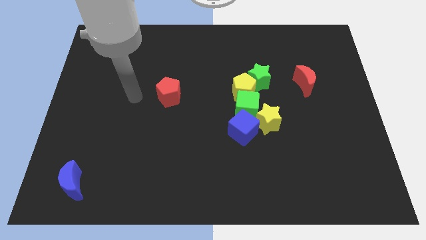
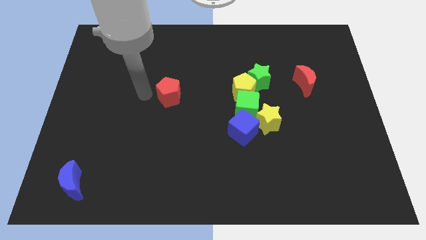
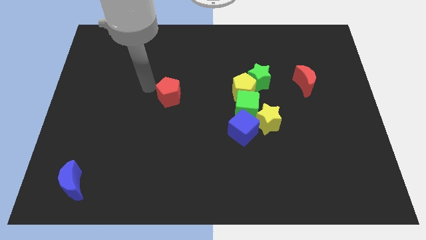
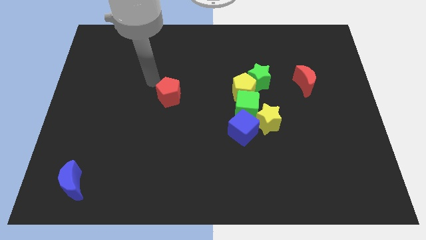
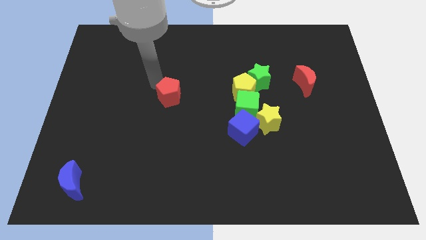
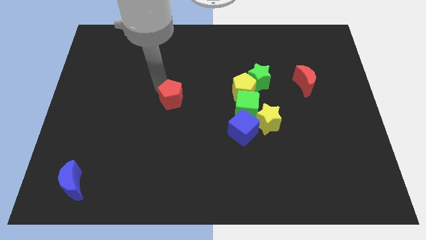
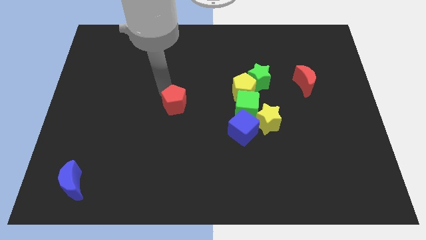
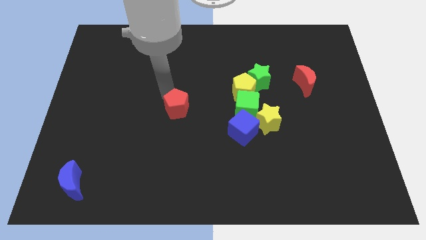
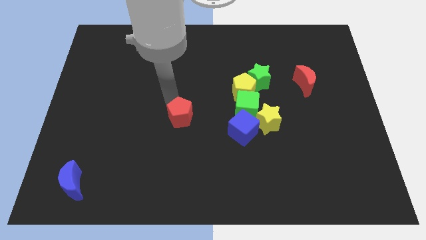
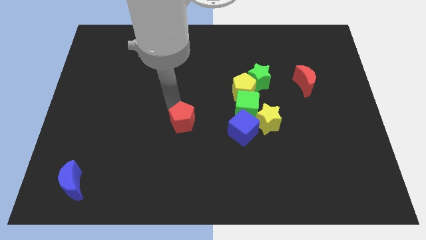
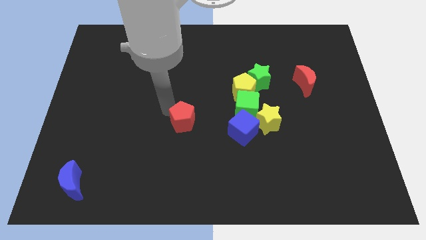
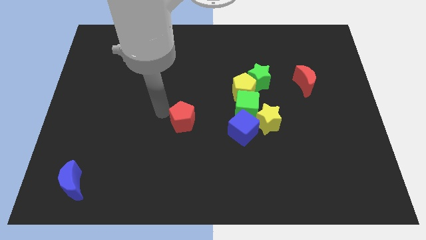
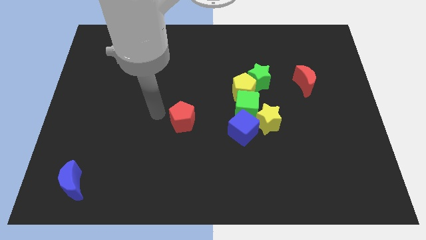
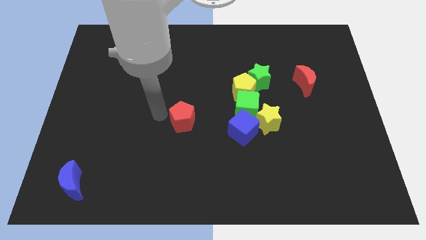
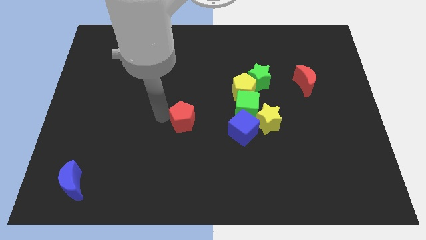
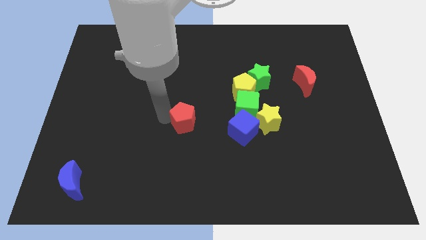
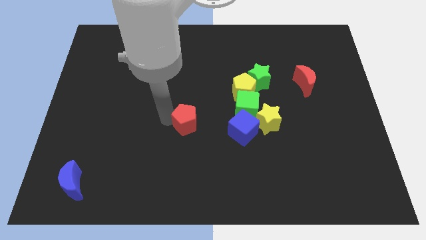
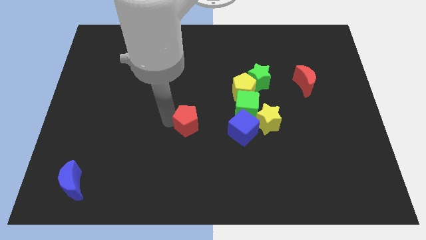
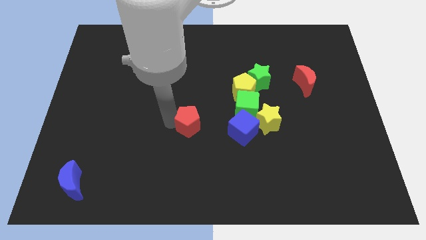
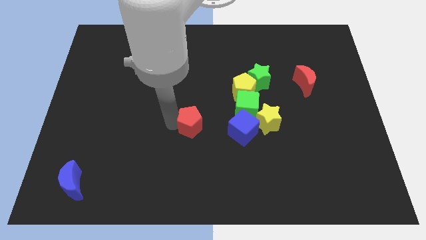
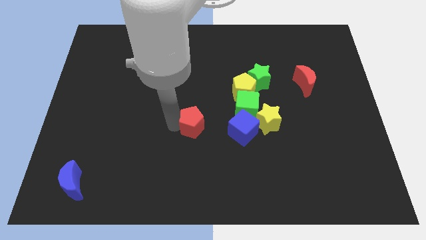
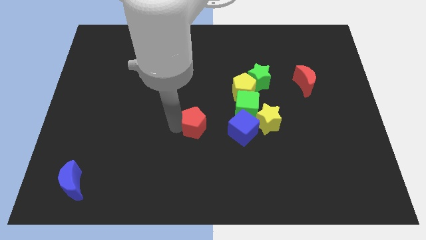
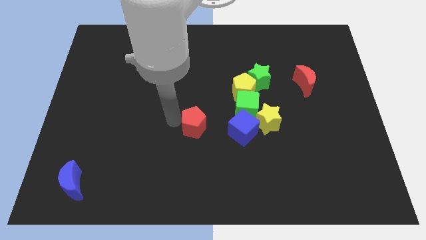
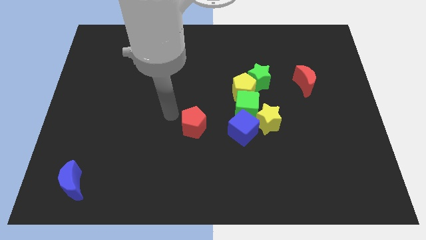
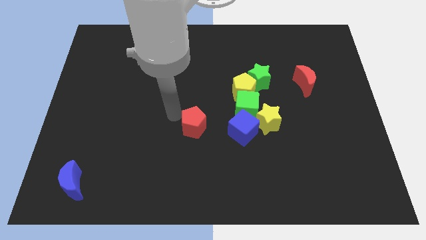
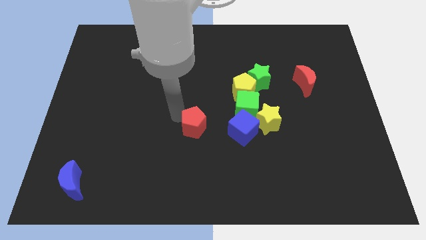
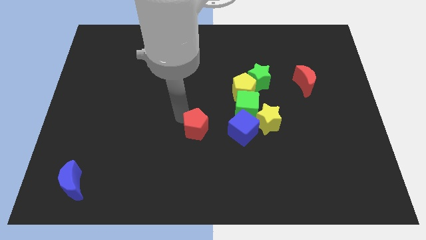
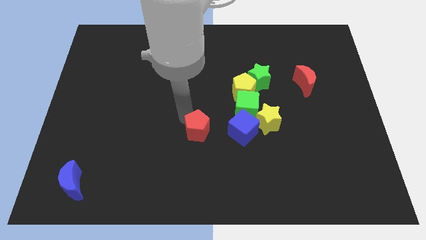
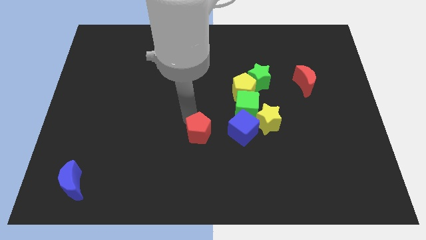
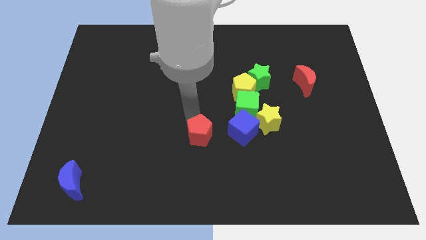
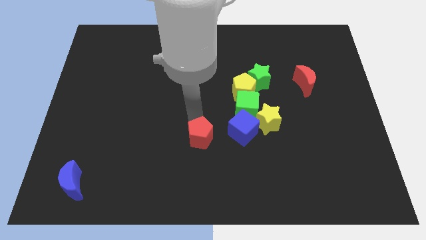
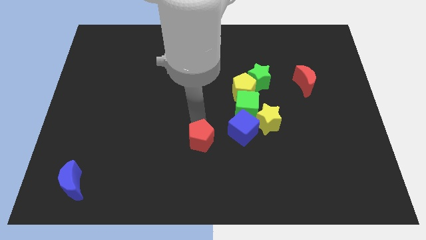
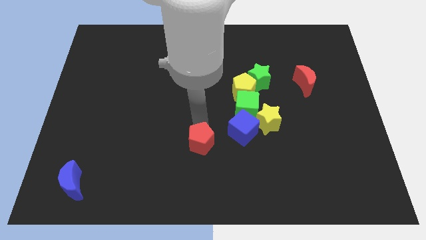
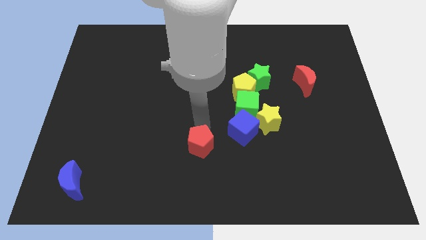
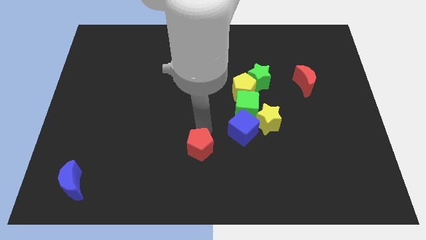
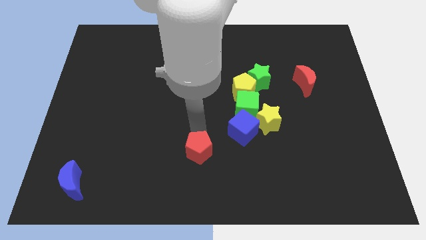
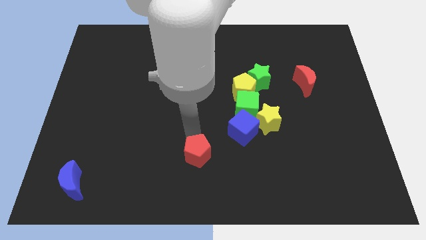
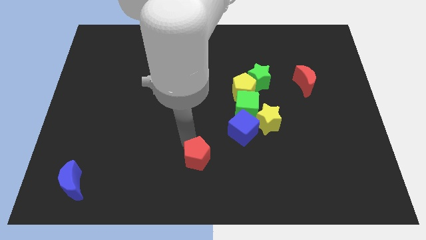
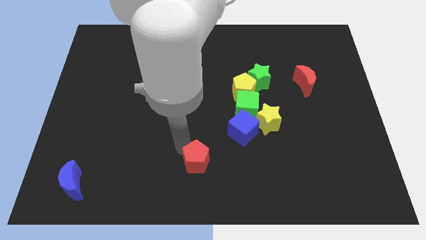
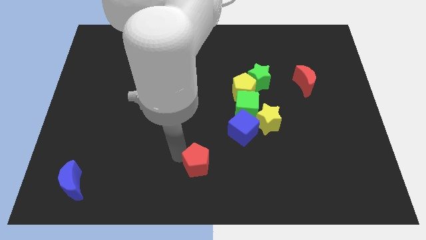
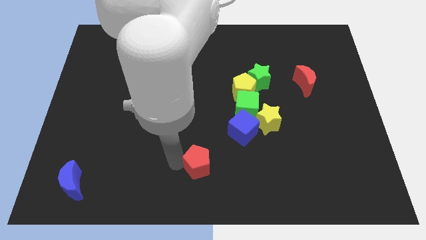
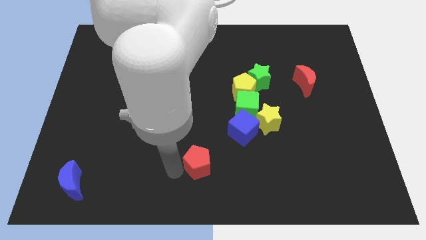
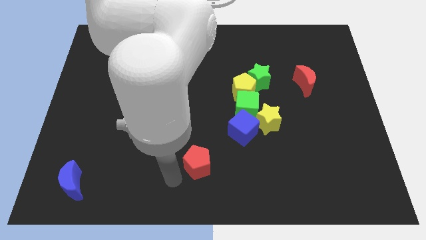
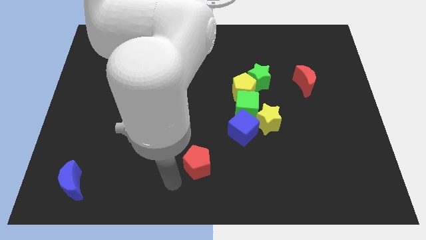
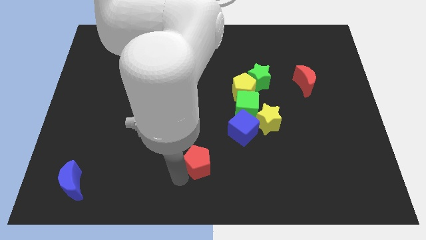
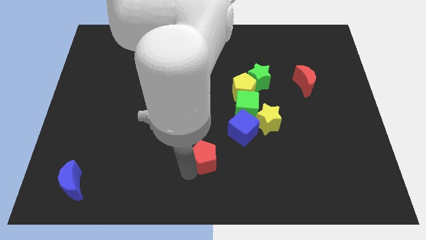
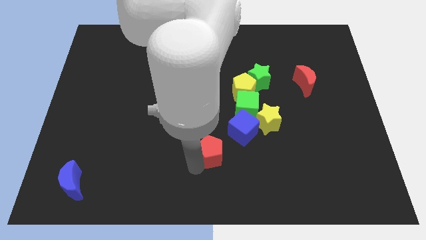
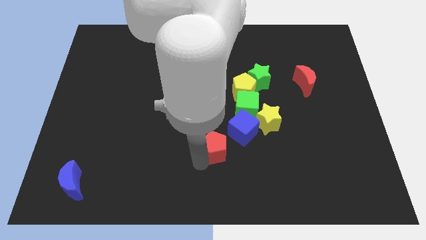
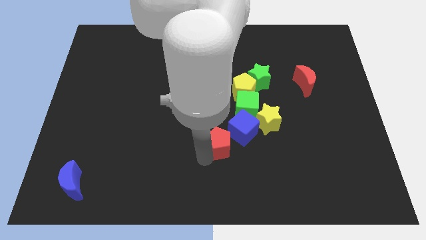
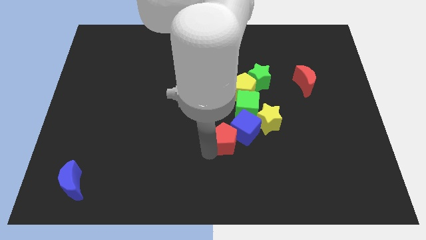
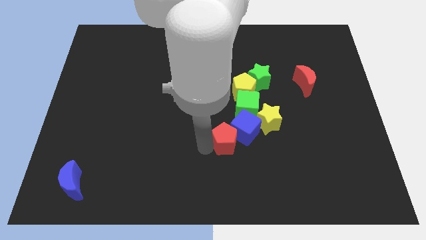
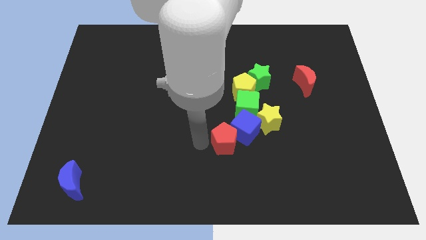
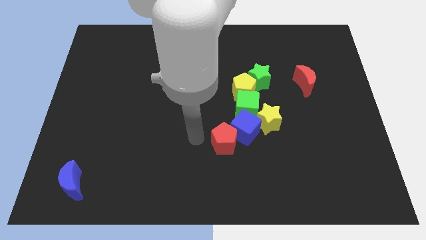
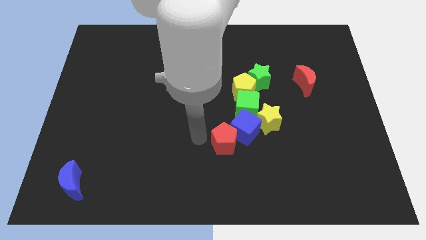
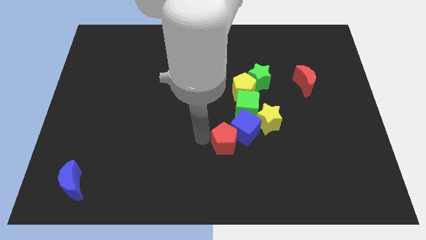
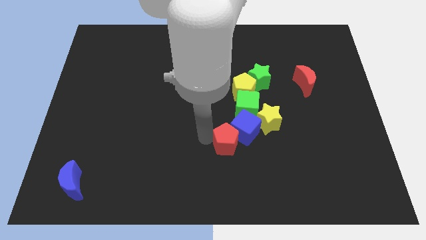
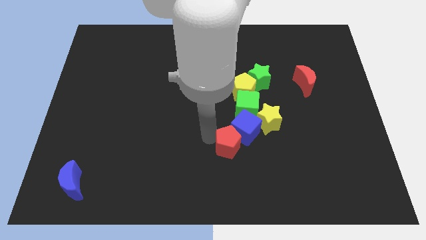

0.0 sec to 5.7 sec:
put the red pentagon to the bottom of the green cube

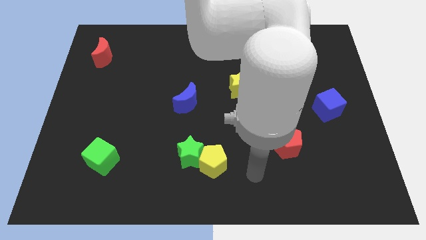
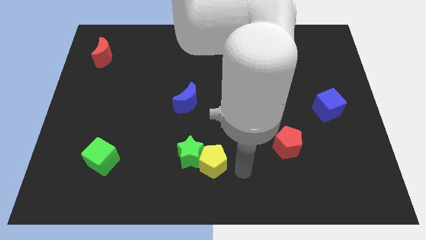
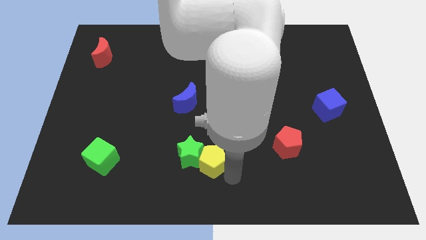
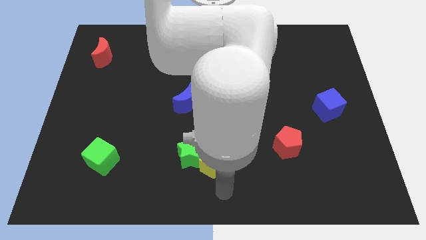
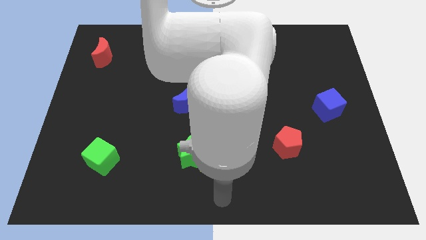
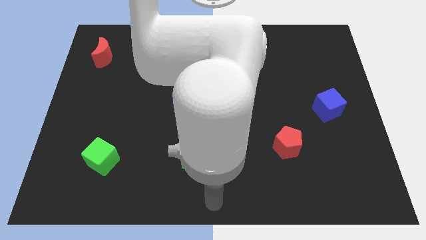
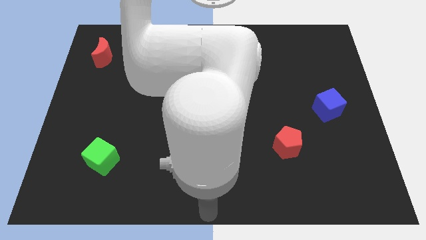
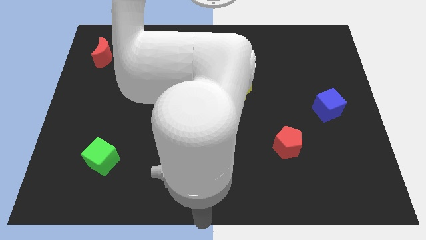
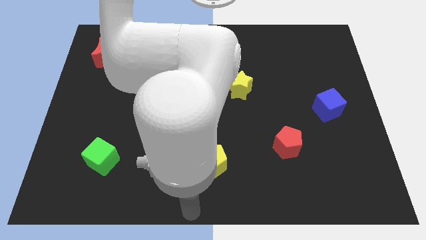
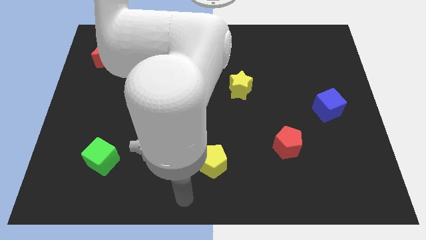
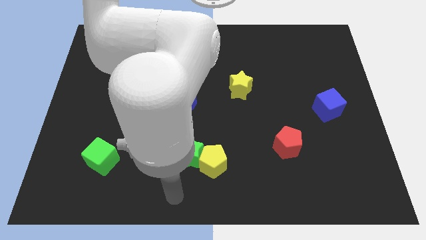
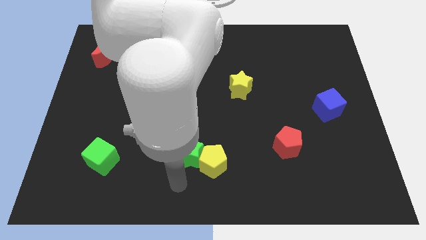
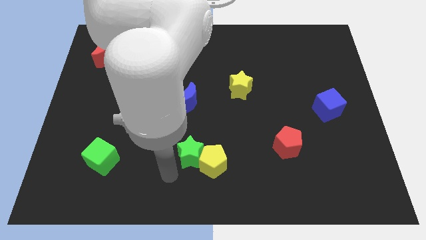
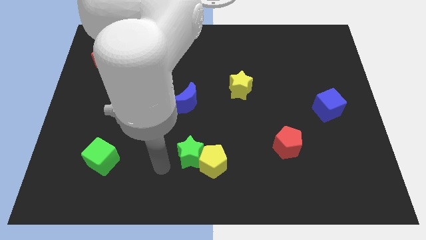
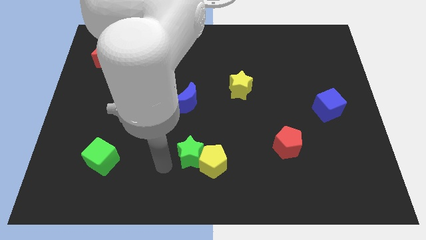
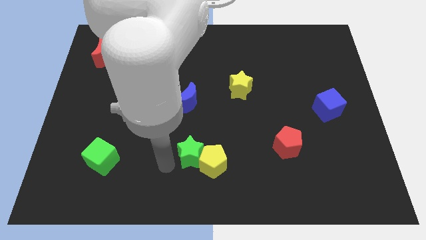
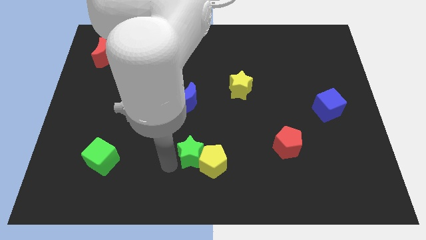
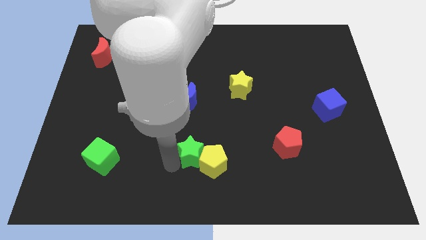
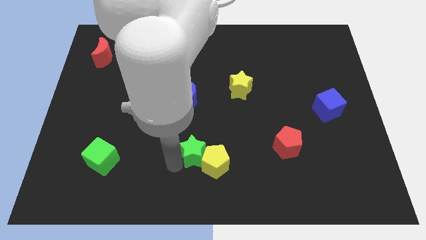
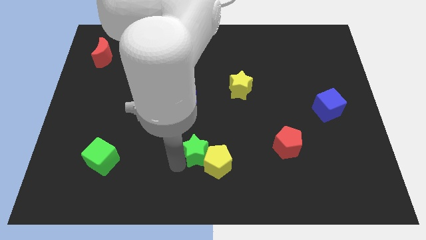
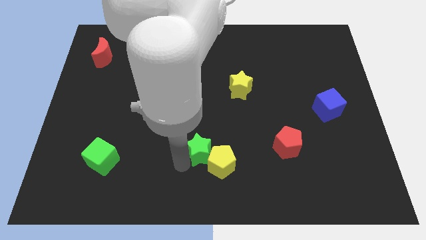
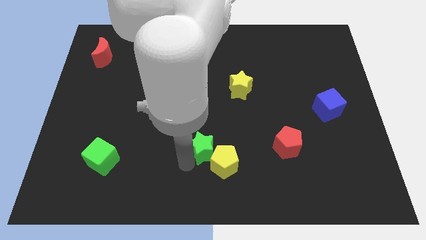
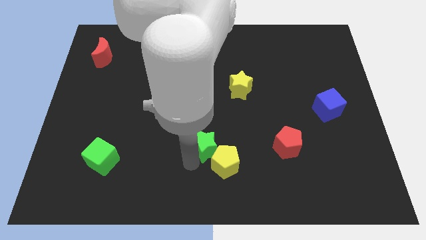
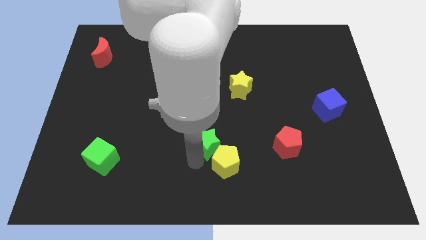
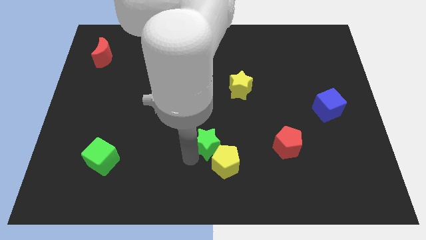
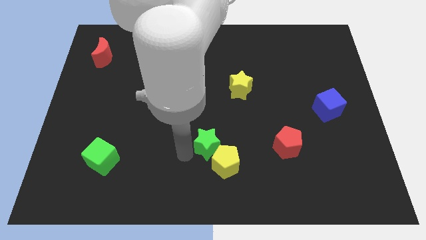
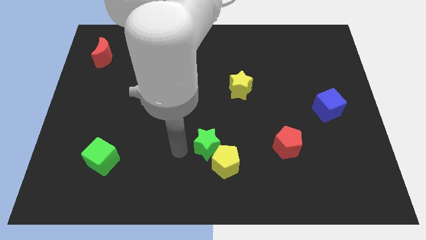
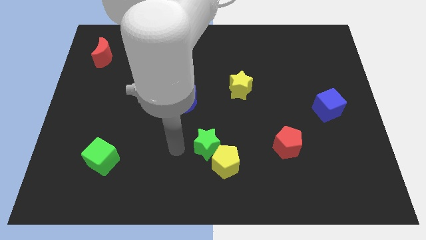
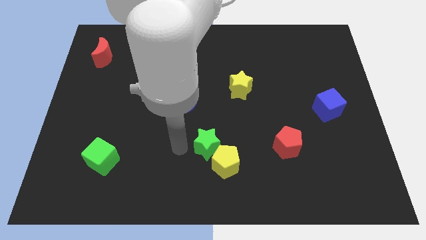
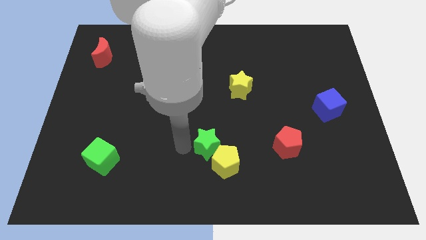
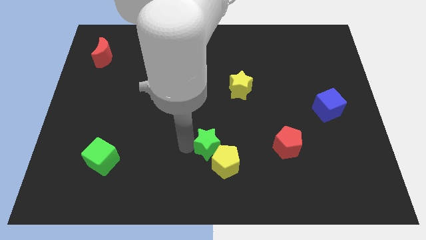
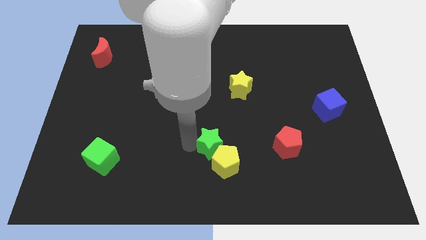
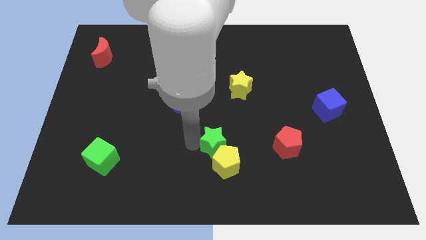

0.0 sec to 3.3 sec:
put the green star left of the red pentagon
